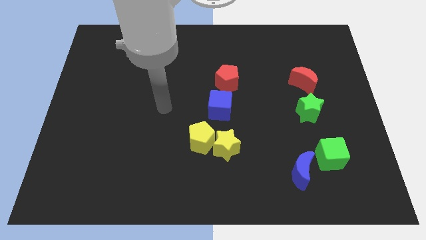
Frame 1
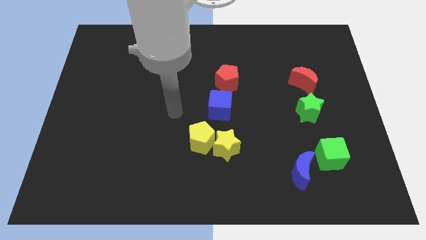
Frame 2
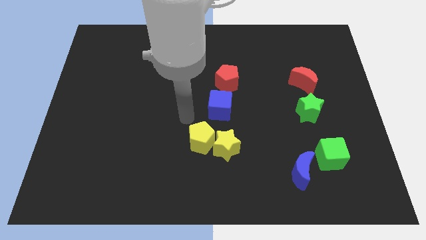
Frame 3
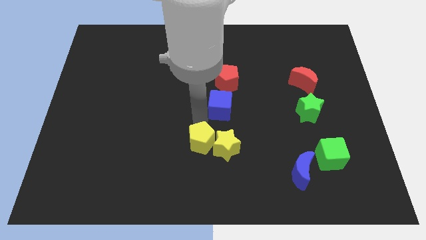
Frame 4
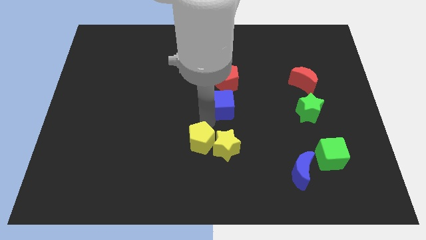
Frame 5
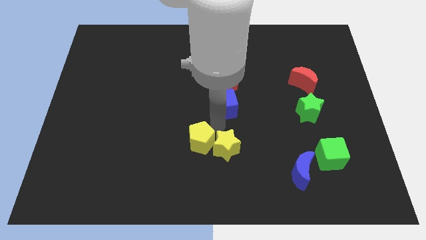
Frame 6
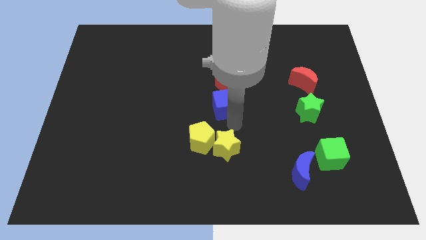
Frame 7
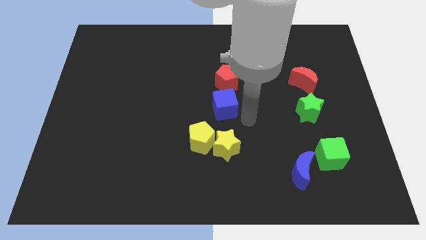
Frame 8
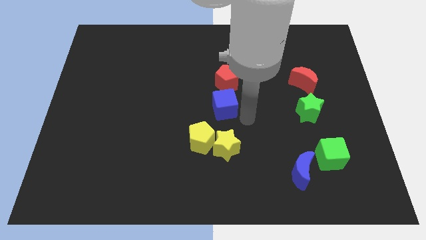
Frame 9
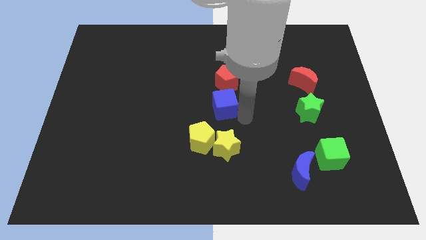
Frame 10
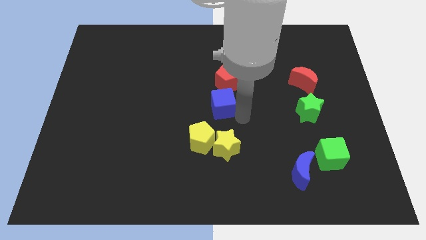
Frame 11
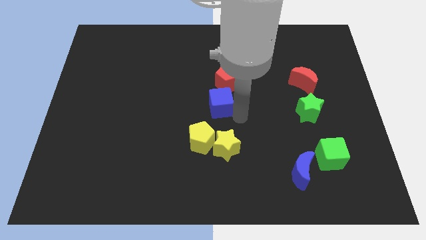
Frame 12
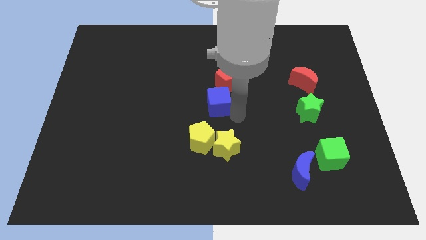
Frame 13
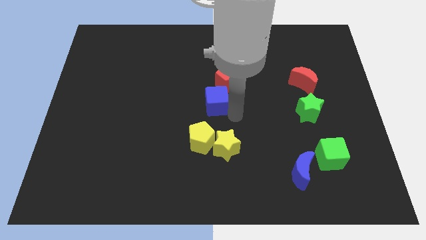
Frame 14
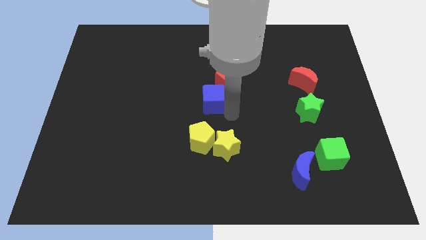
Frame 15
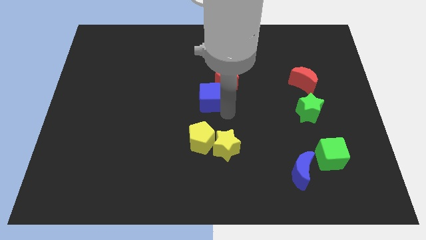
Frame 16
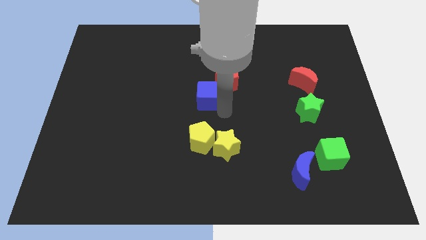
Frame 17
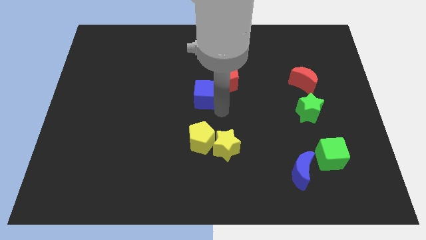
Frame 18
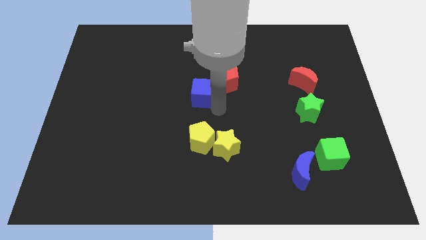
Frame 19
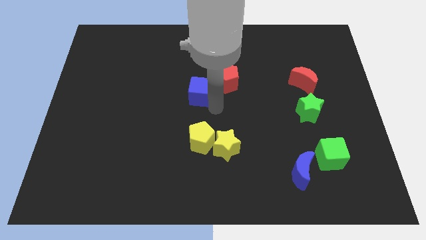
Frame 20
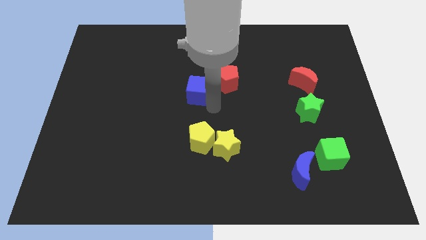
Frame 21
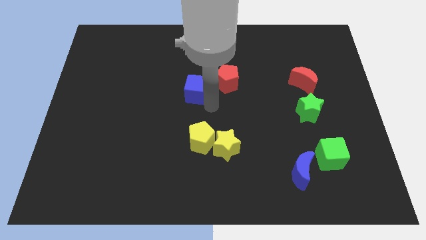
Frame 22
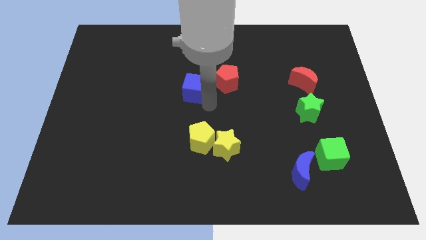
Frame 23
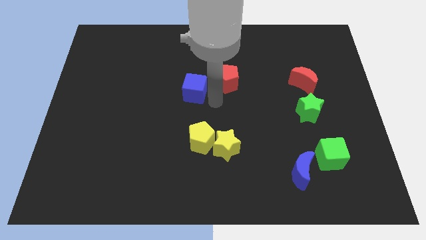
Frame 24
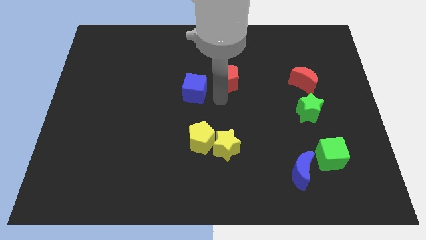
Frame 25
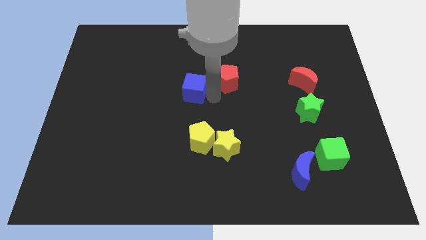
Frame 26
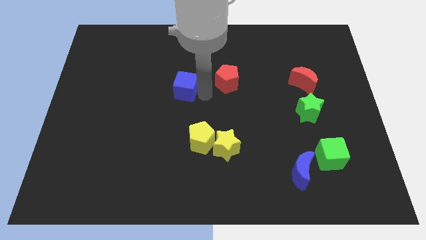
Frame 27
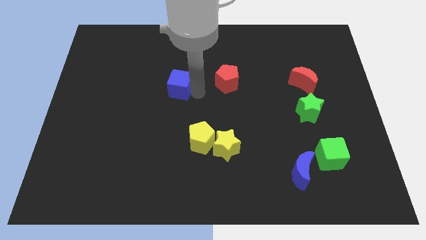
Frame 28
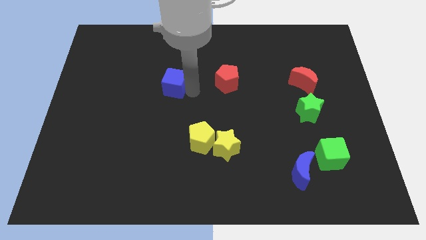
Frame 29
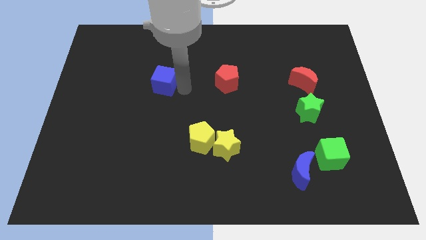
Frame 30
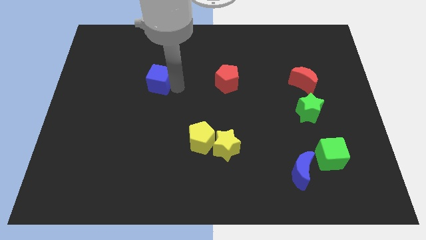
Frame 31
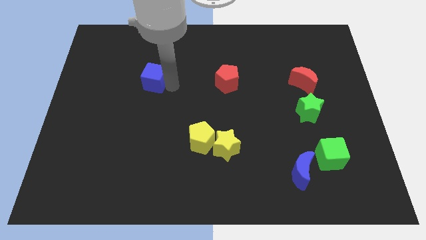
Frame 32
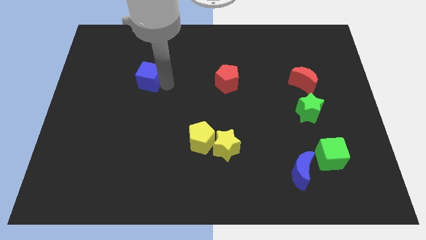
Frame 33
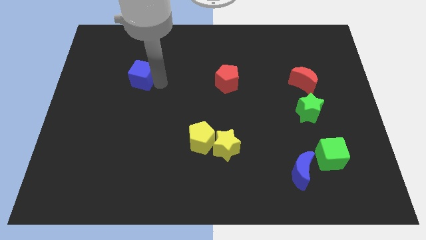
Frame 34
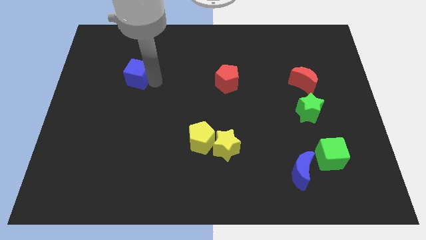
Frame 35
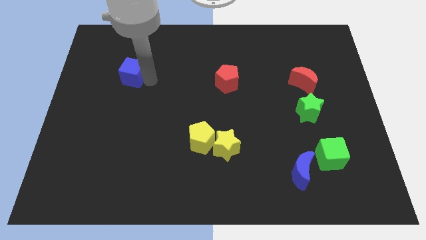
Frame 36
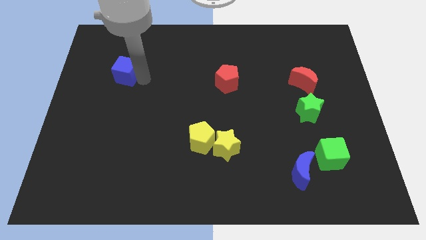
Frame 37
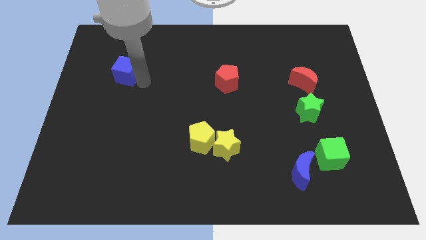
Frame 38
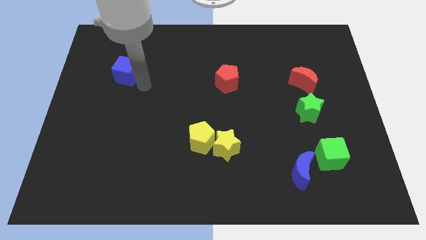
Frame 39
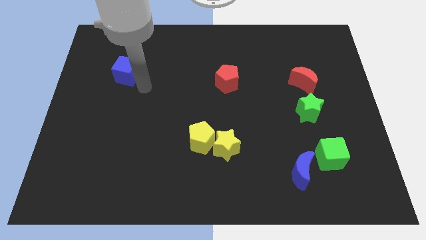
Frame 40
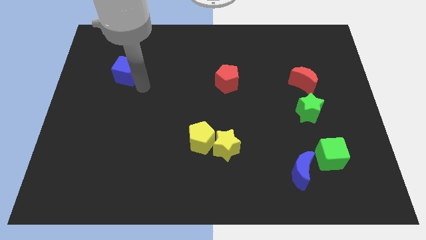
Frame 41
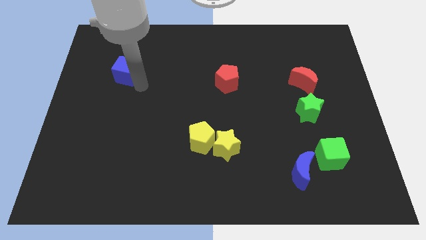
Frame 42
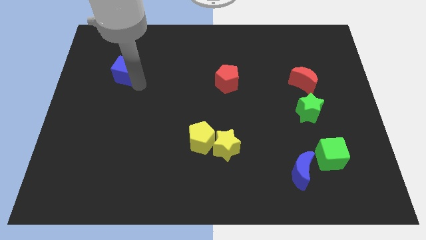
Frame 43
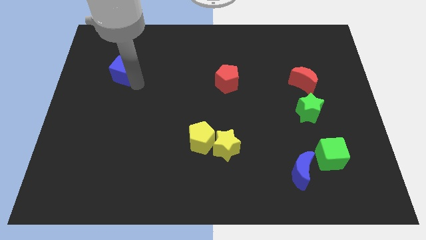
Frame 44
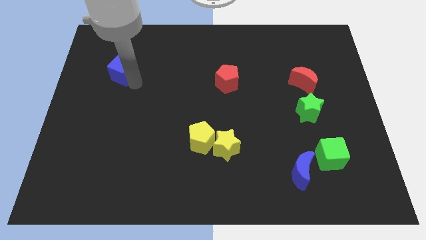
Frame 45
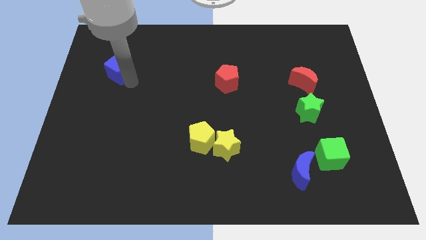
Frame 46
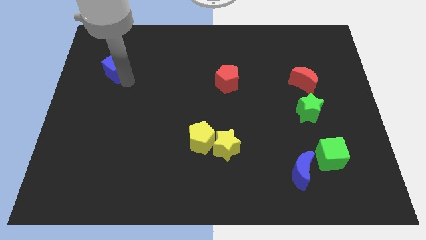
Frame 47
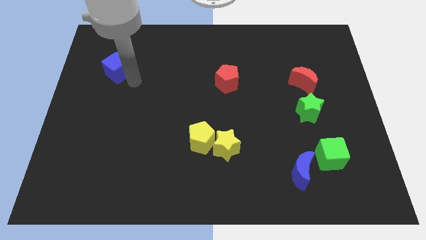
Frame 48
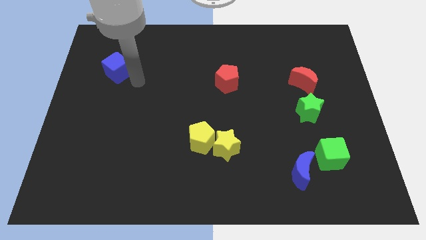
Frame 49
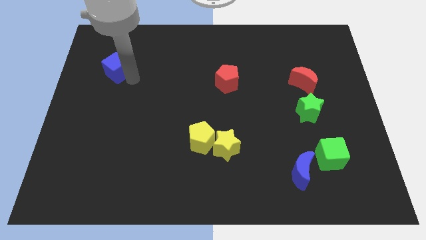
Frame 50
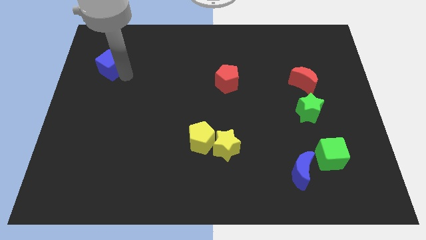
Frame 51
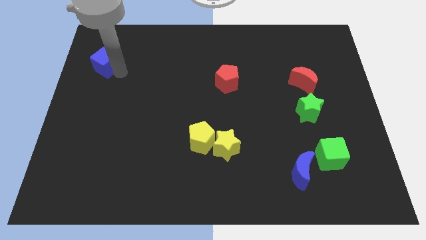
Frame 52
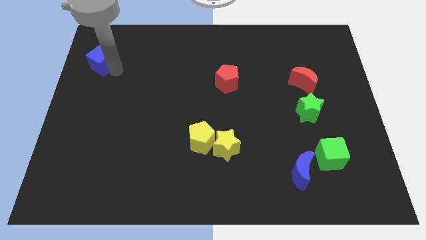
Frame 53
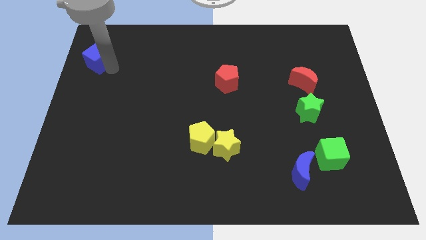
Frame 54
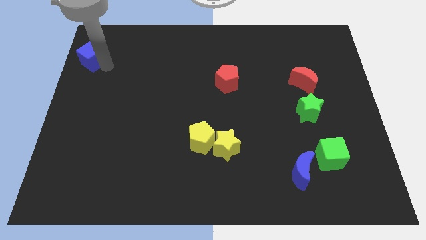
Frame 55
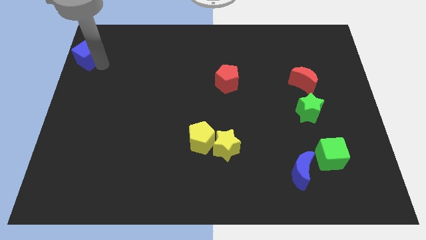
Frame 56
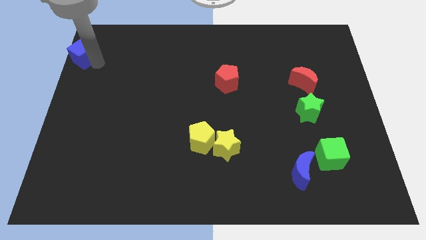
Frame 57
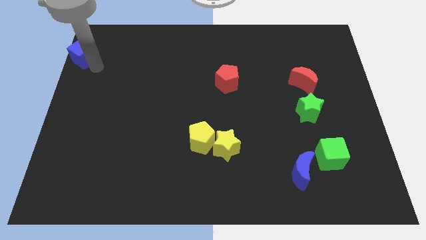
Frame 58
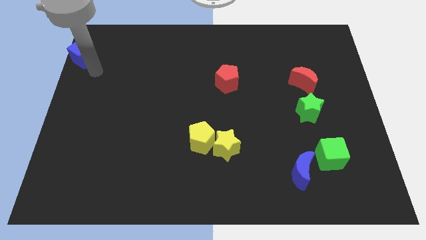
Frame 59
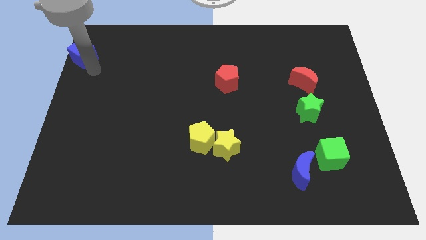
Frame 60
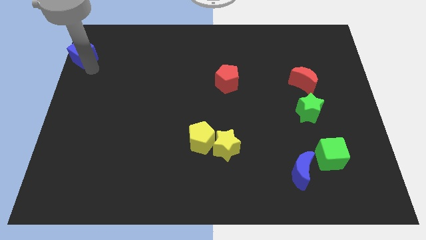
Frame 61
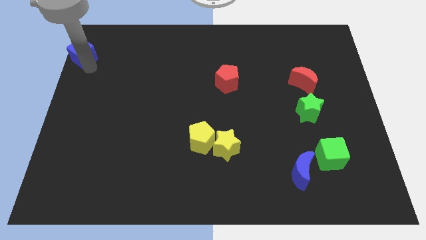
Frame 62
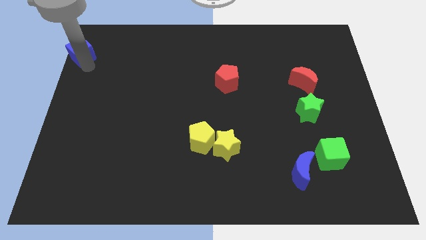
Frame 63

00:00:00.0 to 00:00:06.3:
put the blue cube to the top left

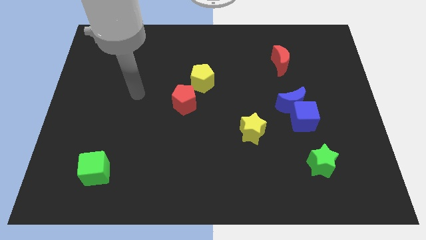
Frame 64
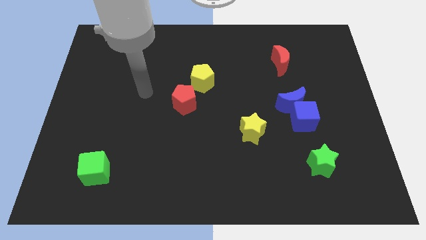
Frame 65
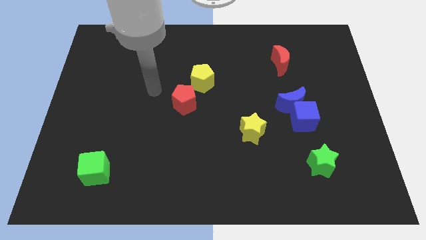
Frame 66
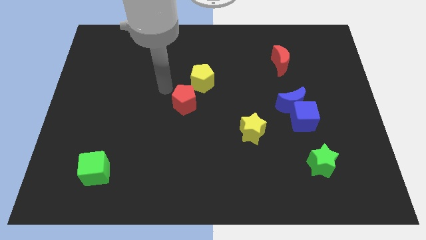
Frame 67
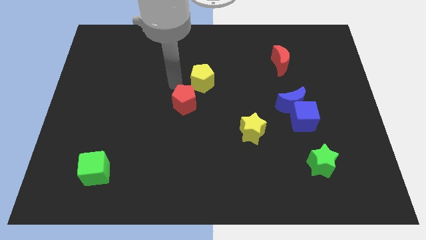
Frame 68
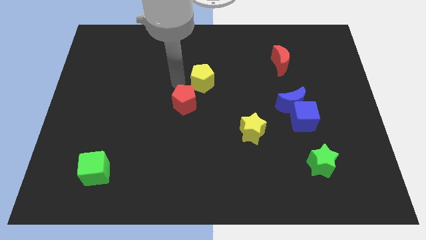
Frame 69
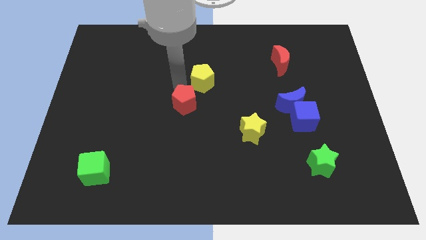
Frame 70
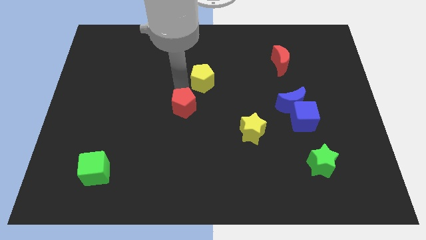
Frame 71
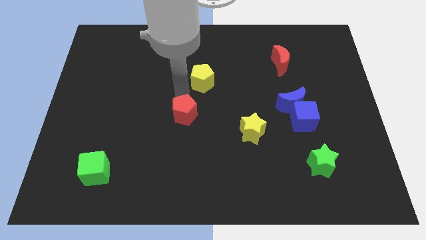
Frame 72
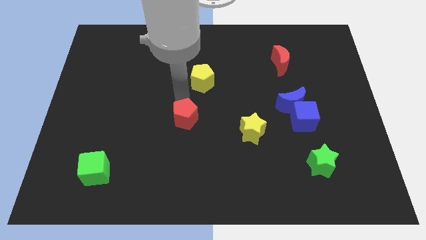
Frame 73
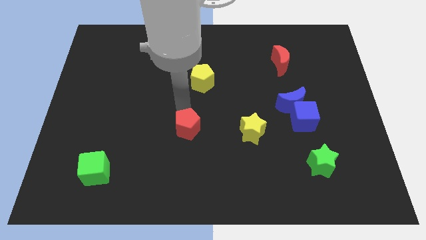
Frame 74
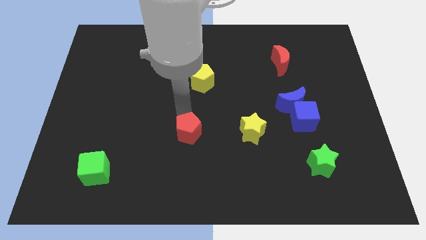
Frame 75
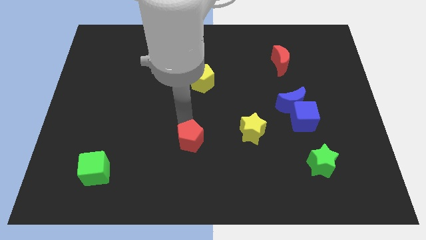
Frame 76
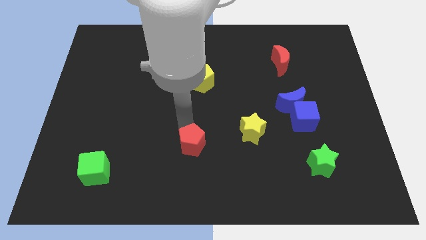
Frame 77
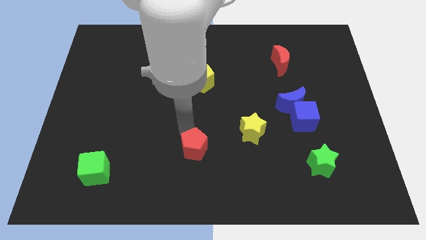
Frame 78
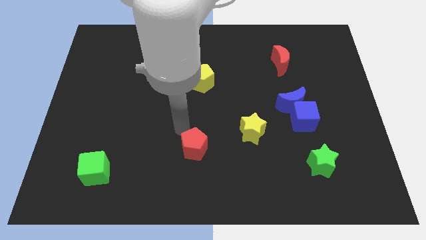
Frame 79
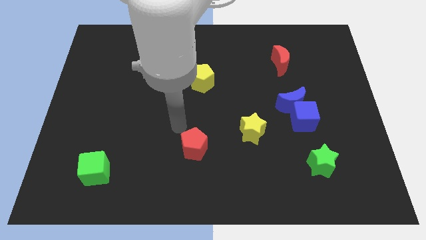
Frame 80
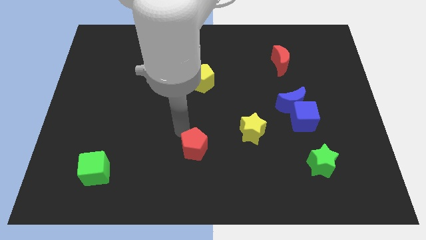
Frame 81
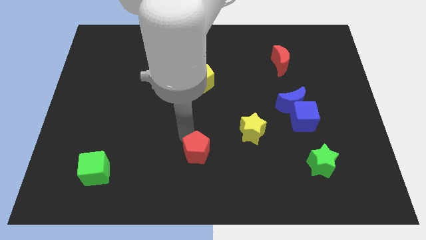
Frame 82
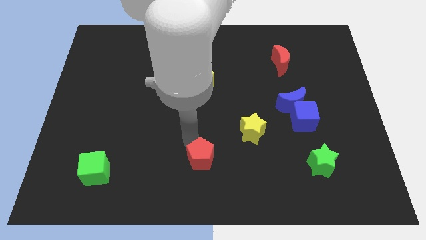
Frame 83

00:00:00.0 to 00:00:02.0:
move the red pentagon to the bottom

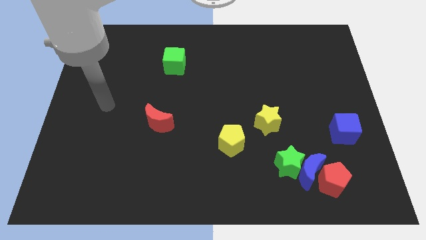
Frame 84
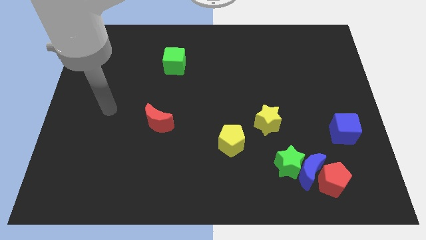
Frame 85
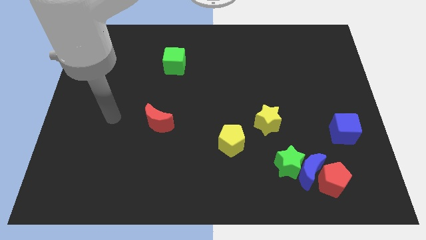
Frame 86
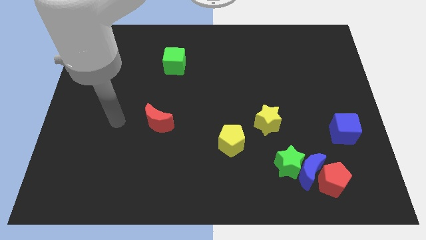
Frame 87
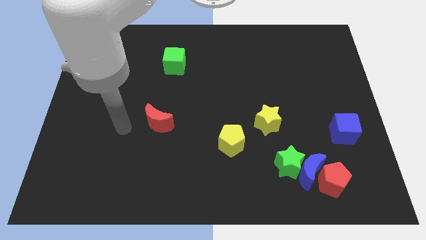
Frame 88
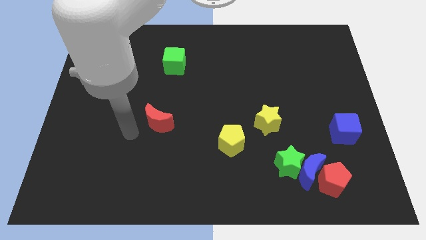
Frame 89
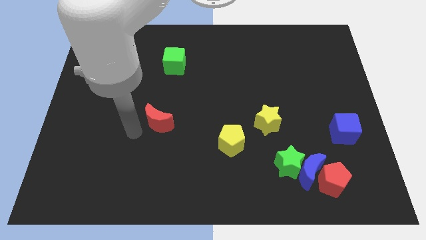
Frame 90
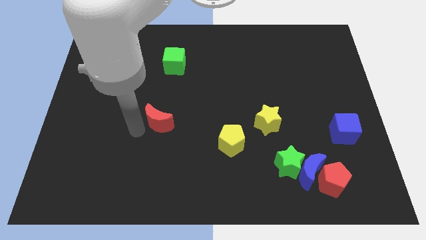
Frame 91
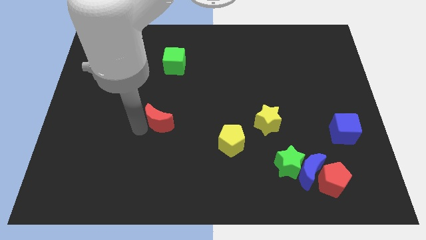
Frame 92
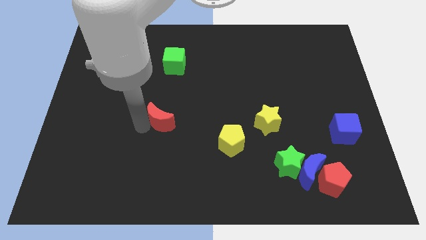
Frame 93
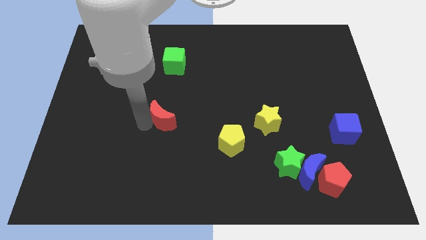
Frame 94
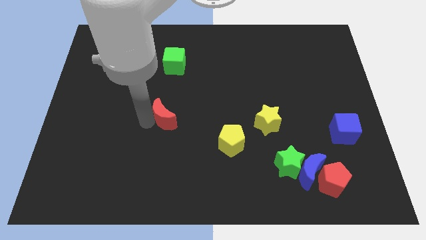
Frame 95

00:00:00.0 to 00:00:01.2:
move the red moon to the center of the board
